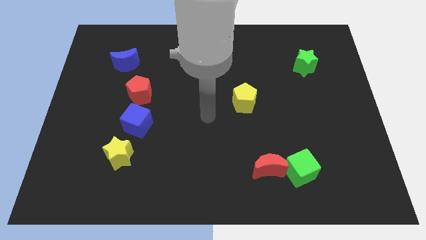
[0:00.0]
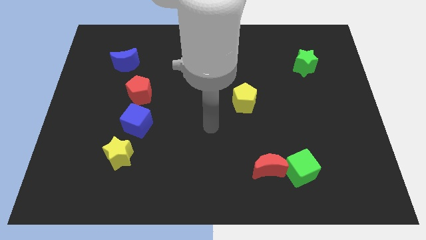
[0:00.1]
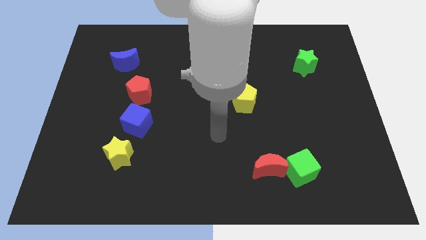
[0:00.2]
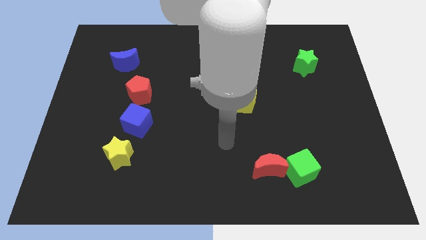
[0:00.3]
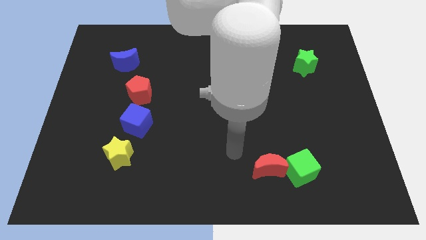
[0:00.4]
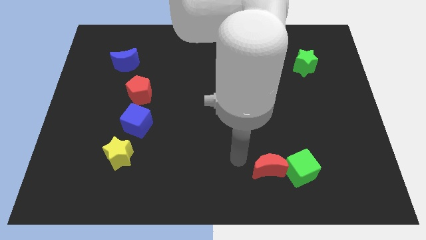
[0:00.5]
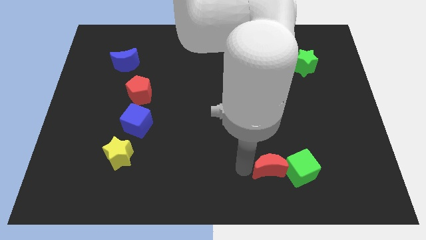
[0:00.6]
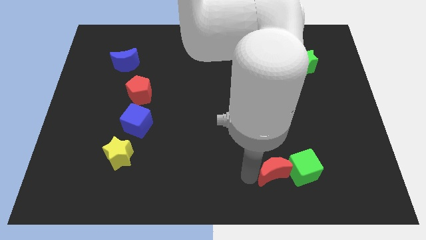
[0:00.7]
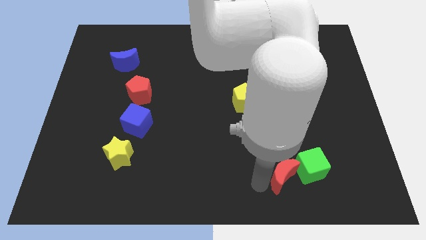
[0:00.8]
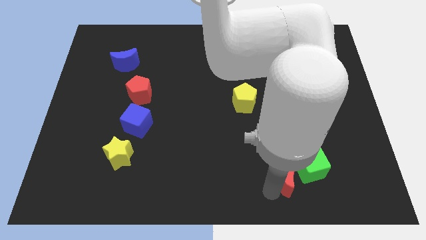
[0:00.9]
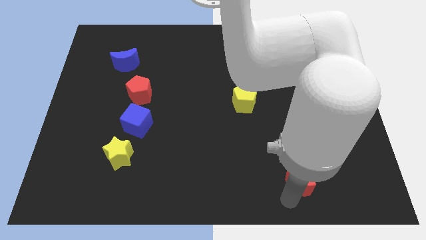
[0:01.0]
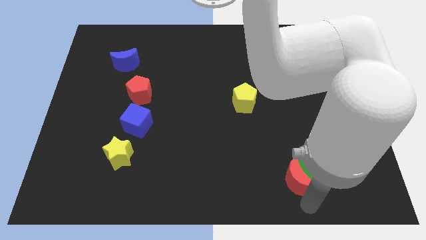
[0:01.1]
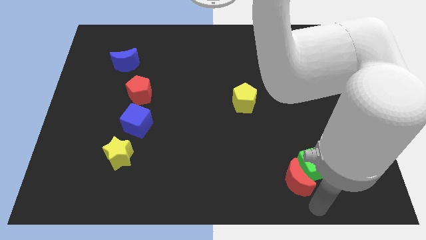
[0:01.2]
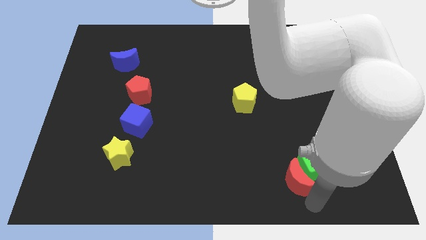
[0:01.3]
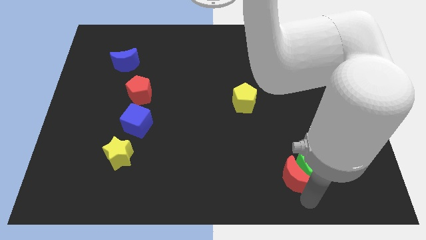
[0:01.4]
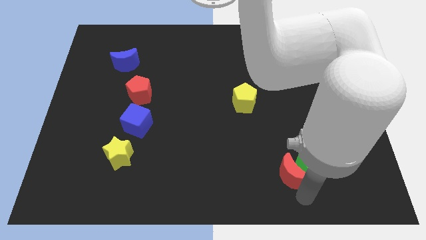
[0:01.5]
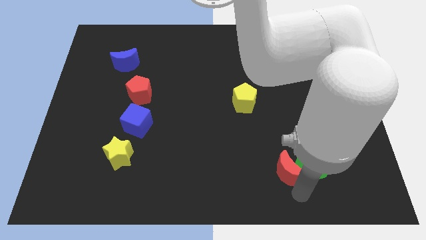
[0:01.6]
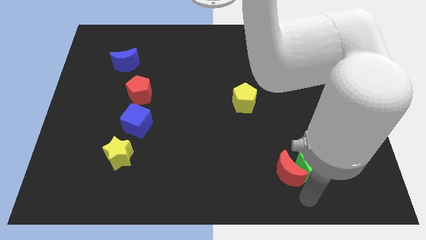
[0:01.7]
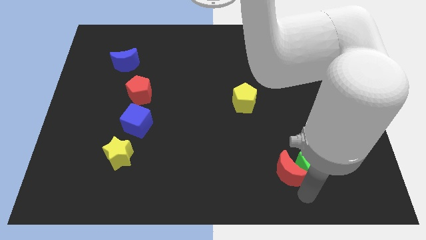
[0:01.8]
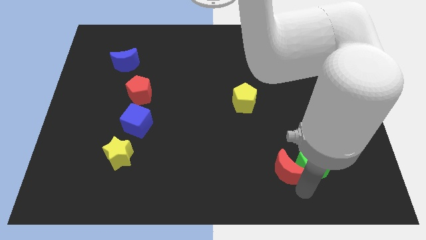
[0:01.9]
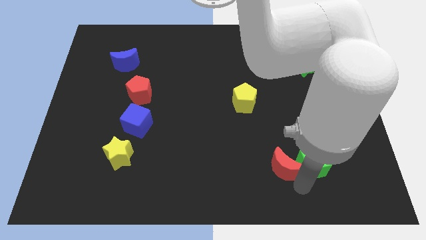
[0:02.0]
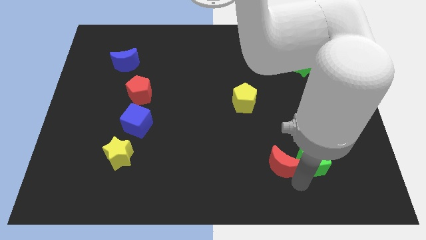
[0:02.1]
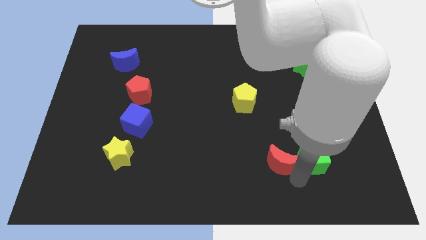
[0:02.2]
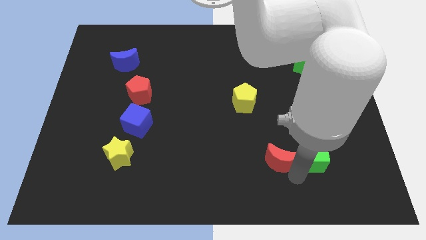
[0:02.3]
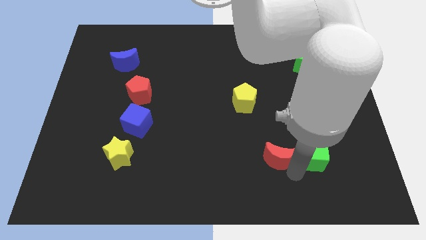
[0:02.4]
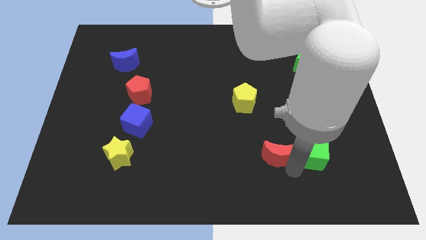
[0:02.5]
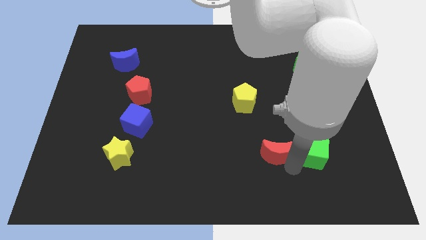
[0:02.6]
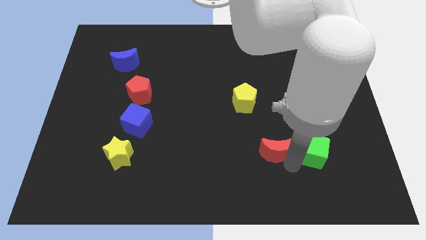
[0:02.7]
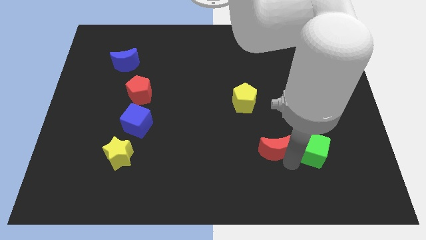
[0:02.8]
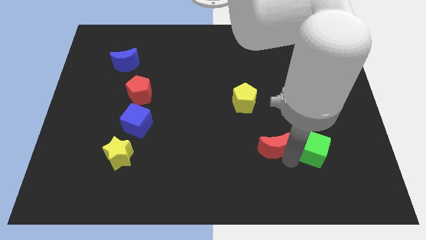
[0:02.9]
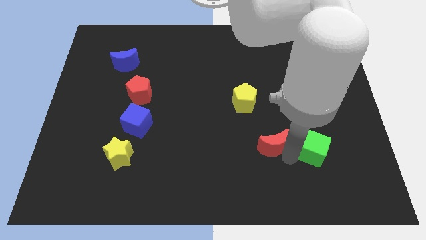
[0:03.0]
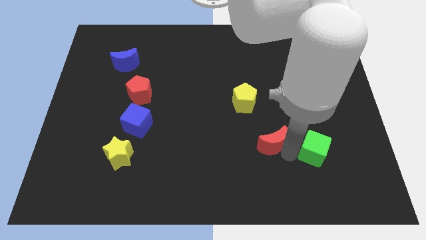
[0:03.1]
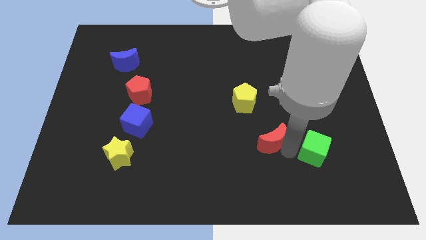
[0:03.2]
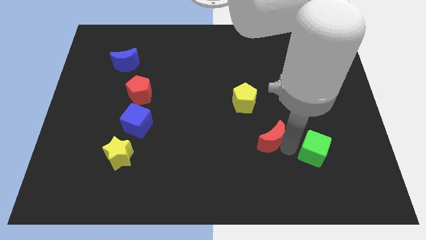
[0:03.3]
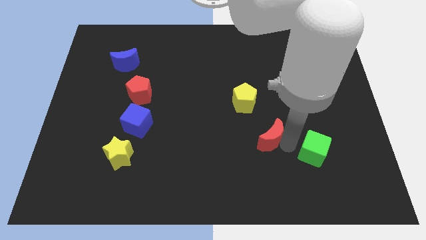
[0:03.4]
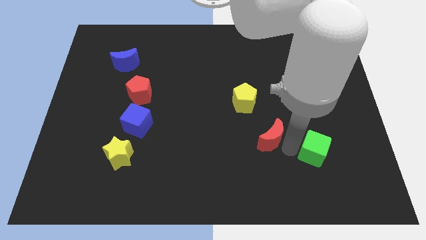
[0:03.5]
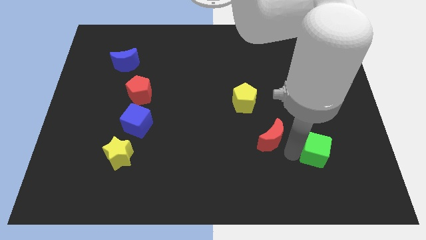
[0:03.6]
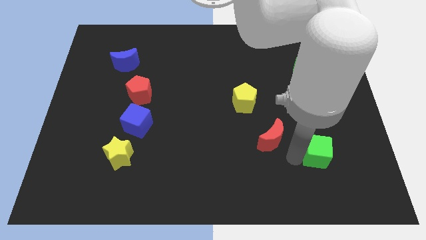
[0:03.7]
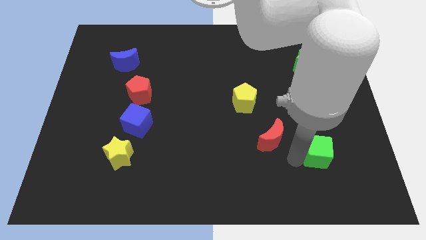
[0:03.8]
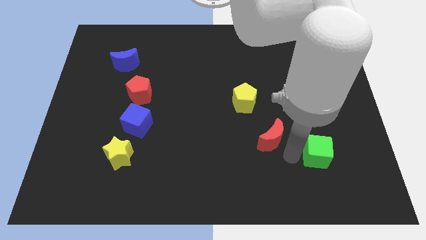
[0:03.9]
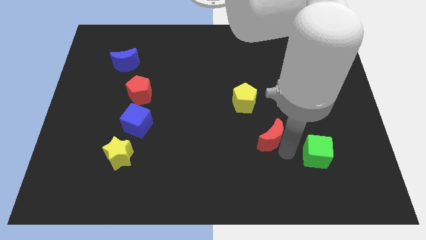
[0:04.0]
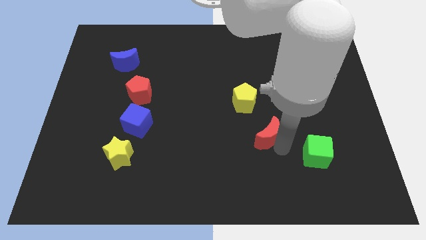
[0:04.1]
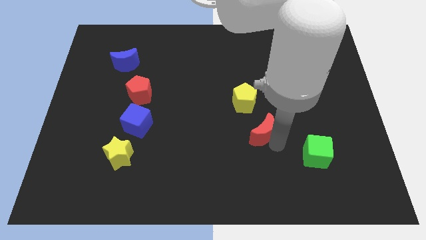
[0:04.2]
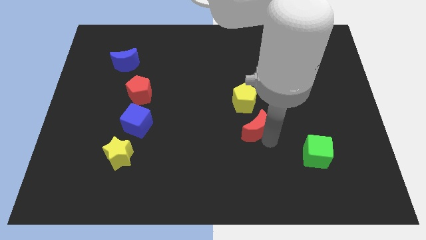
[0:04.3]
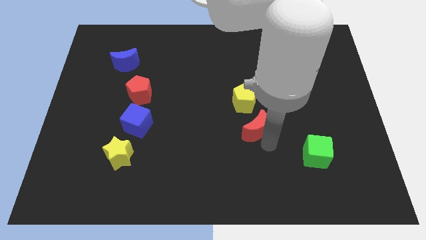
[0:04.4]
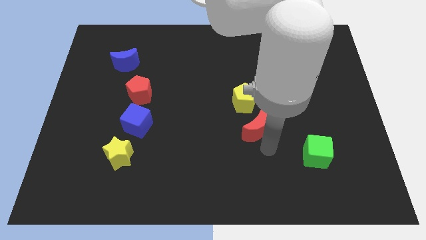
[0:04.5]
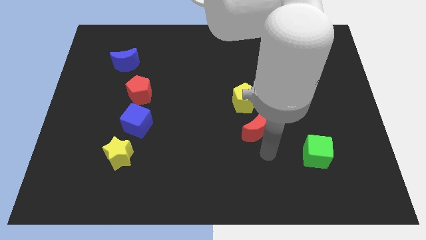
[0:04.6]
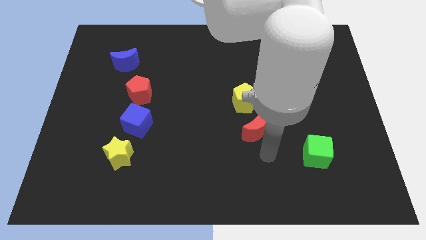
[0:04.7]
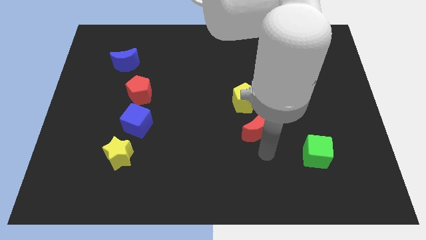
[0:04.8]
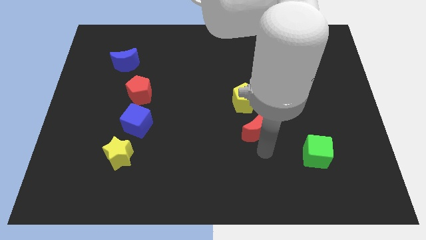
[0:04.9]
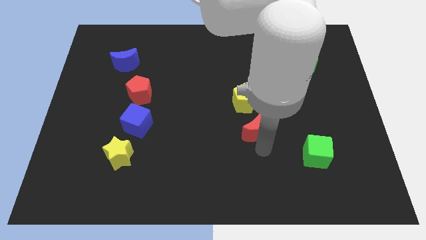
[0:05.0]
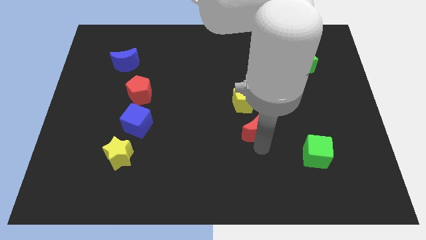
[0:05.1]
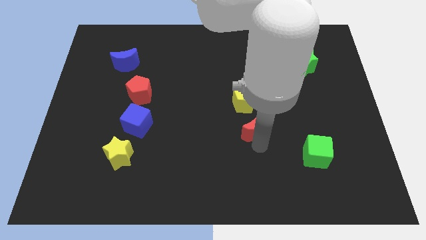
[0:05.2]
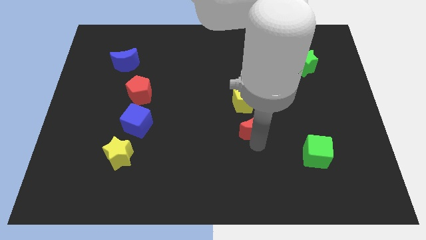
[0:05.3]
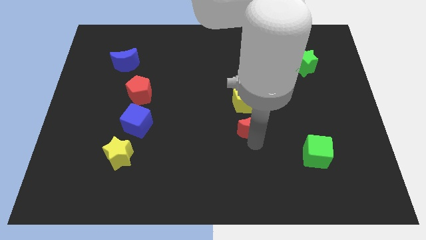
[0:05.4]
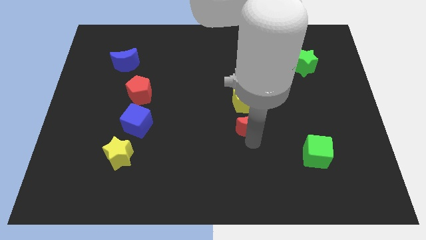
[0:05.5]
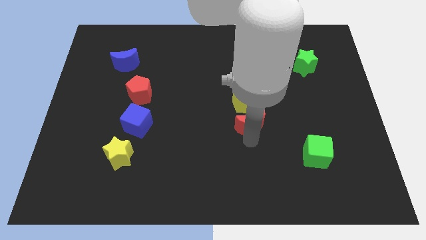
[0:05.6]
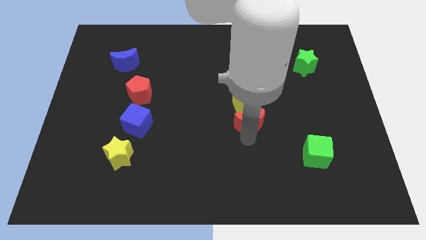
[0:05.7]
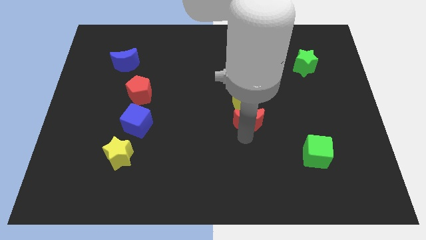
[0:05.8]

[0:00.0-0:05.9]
move the red moon close to the yellow pentagon

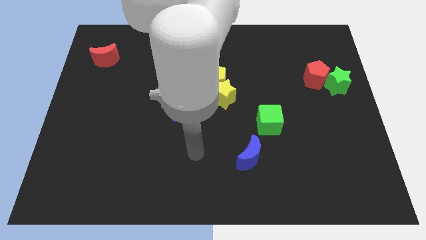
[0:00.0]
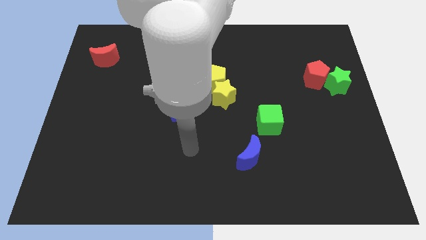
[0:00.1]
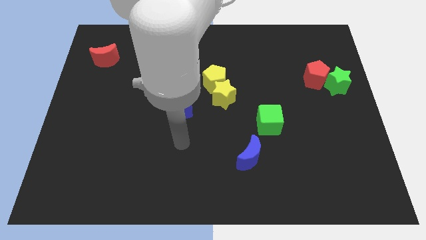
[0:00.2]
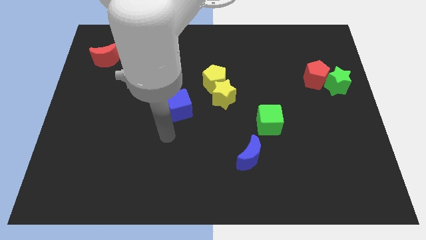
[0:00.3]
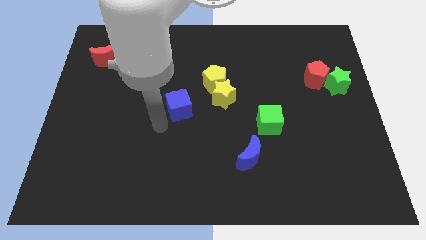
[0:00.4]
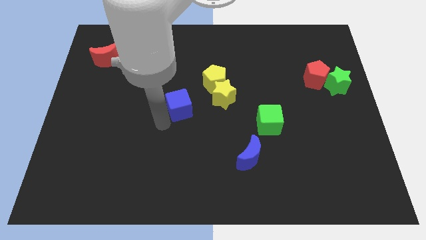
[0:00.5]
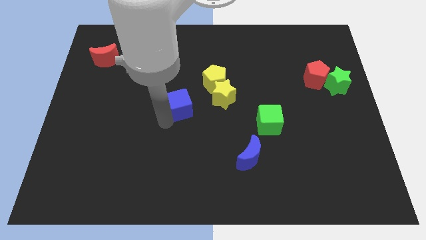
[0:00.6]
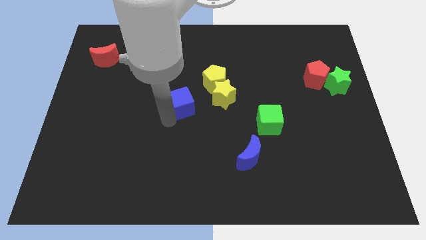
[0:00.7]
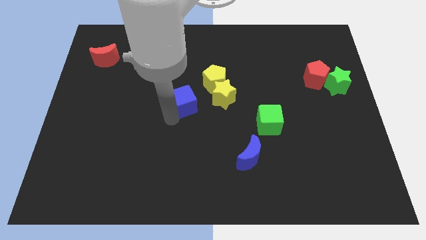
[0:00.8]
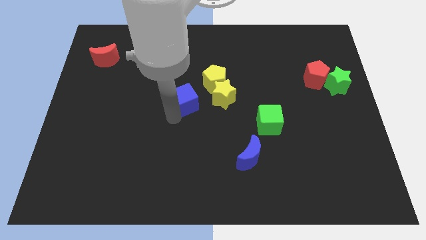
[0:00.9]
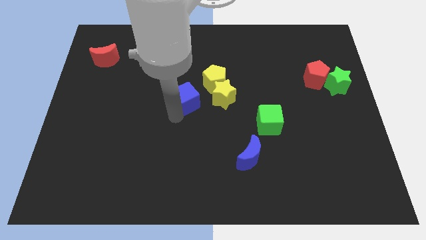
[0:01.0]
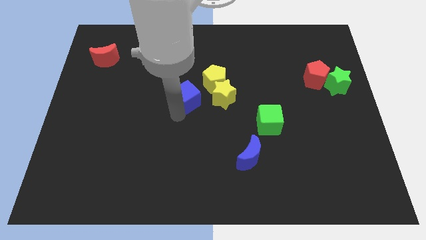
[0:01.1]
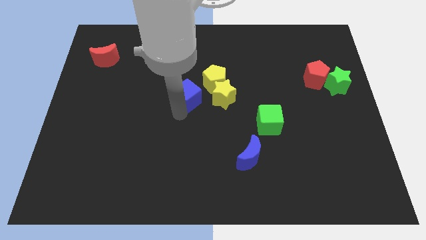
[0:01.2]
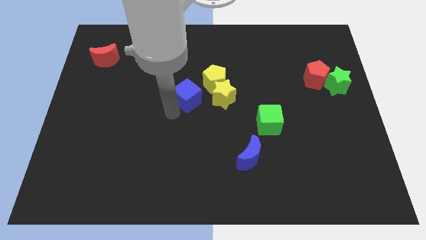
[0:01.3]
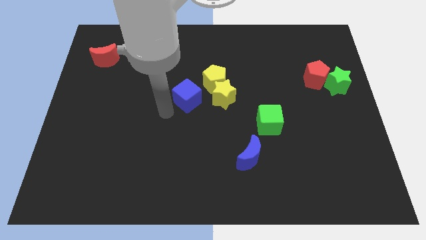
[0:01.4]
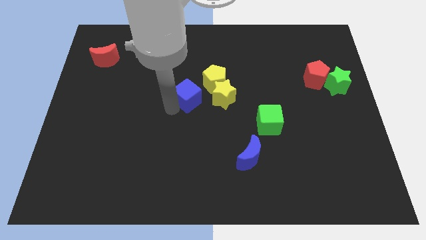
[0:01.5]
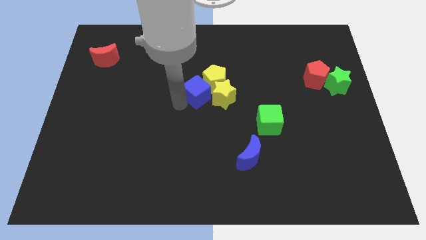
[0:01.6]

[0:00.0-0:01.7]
slide the blue cube close to the yellow pentagon
